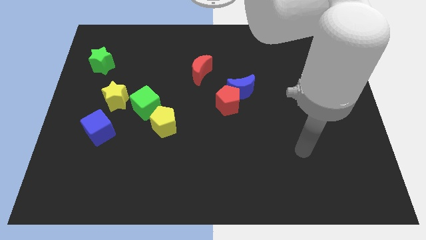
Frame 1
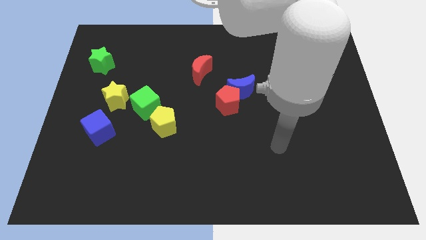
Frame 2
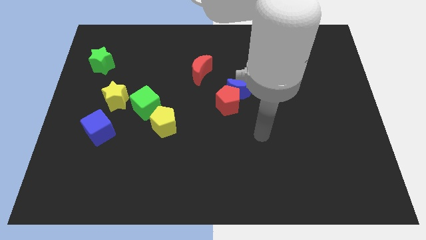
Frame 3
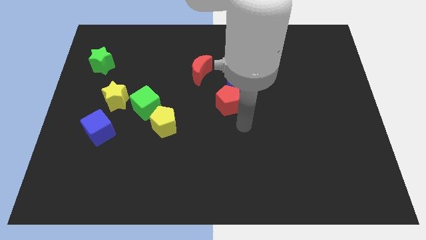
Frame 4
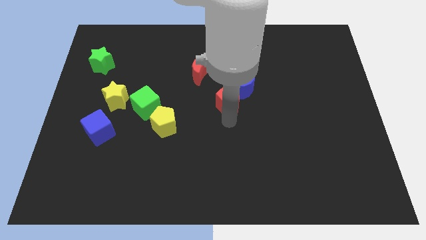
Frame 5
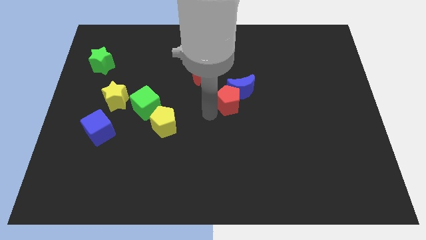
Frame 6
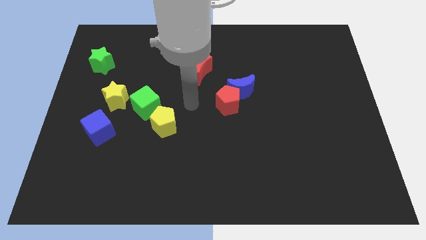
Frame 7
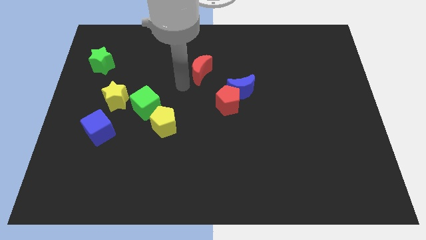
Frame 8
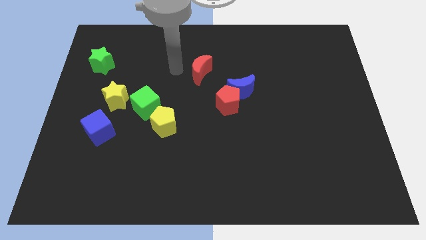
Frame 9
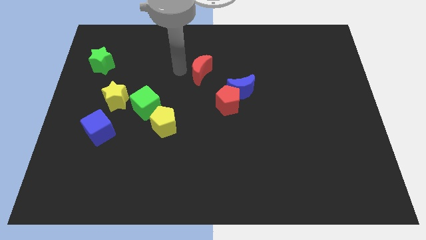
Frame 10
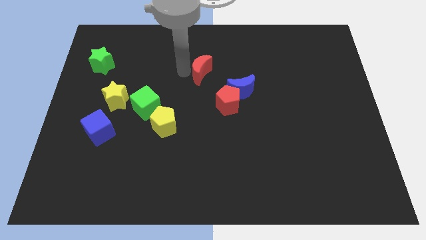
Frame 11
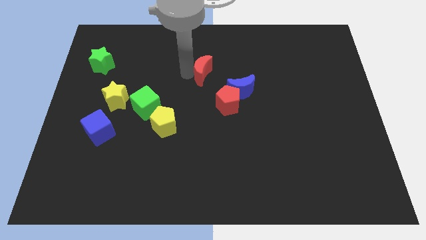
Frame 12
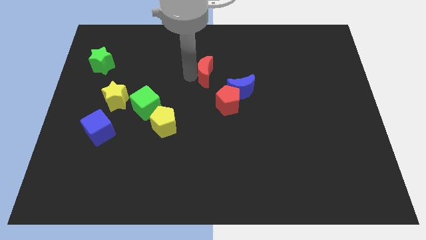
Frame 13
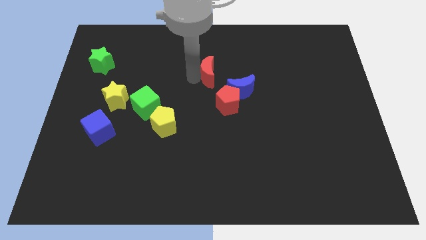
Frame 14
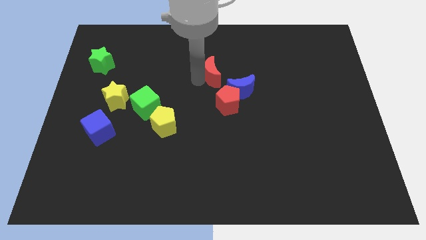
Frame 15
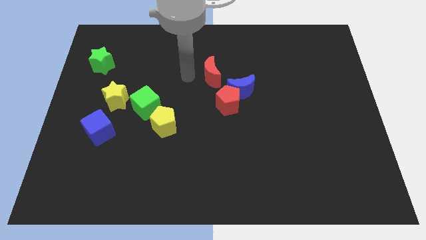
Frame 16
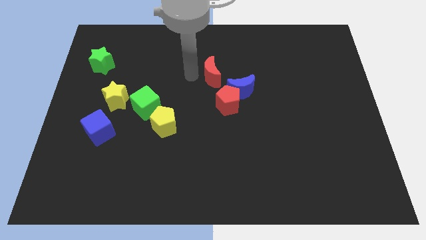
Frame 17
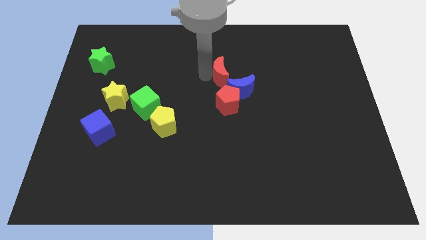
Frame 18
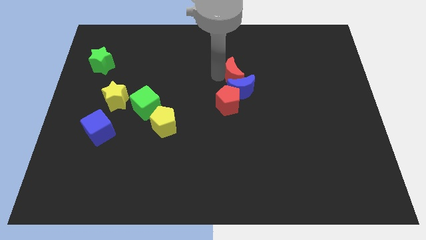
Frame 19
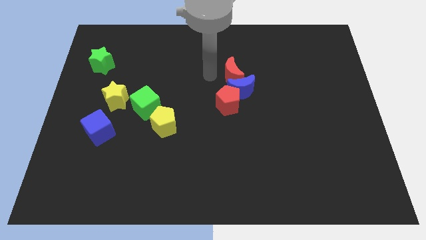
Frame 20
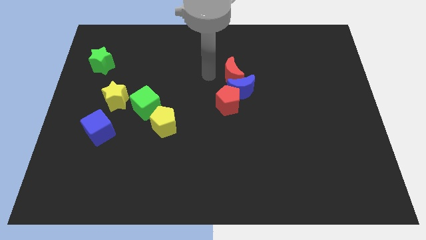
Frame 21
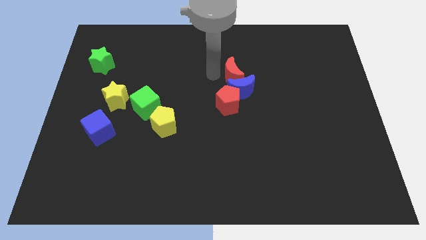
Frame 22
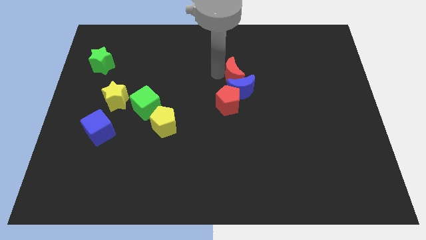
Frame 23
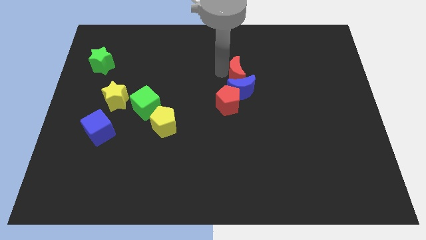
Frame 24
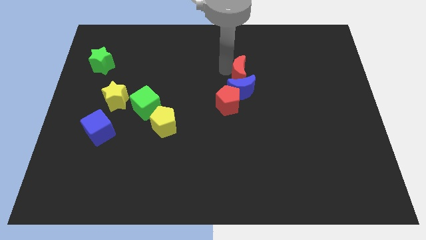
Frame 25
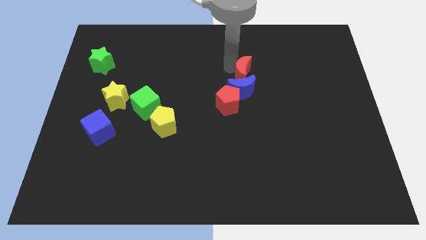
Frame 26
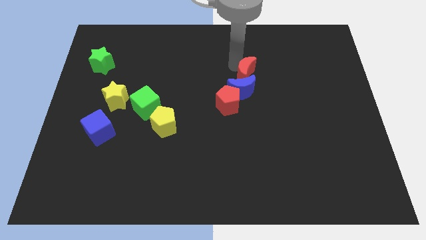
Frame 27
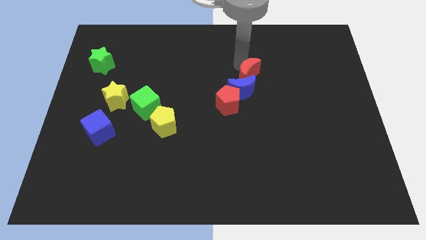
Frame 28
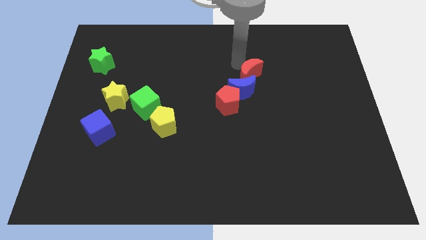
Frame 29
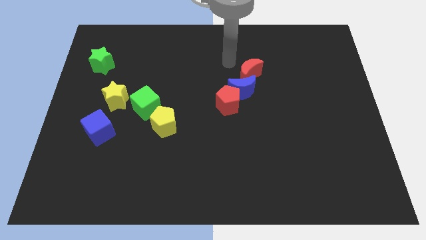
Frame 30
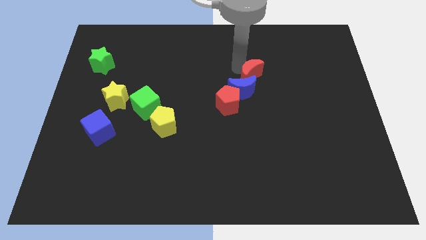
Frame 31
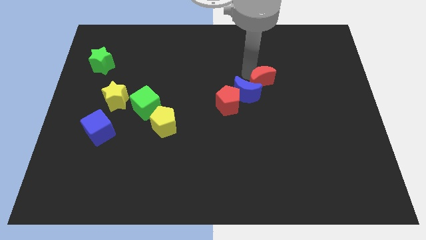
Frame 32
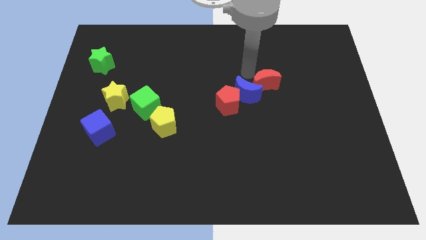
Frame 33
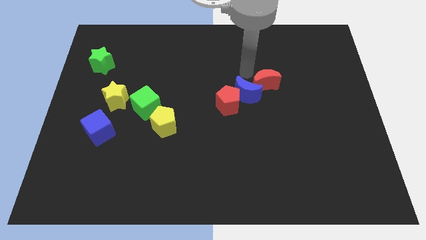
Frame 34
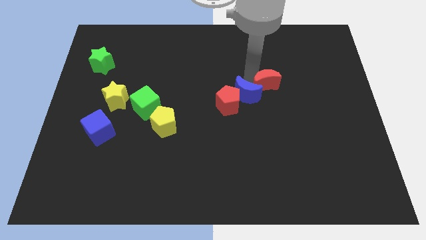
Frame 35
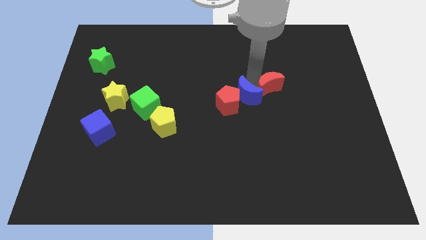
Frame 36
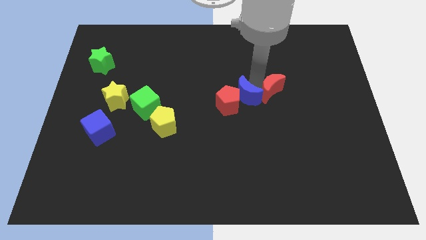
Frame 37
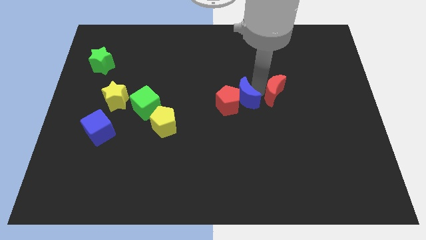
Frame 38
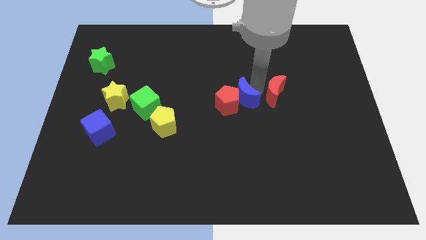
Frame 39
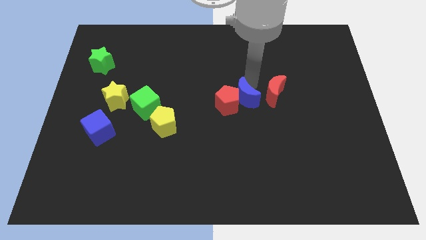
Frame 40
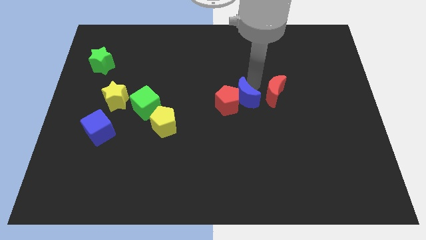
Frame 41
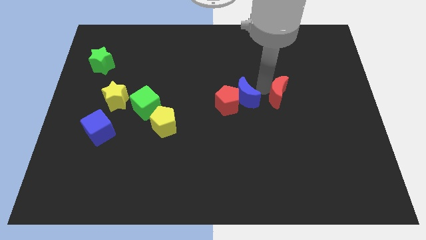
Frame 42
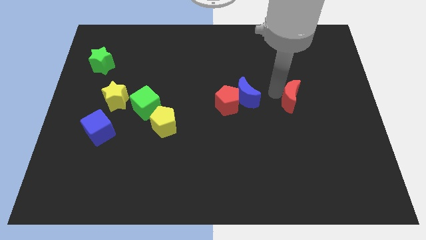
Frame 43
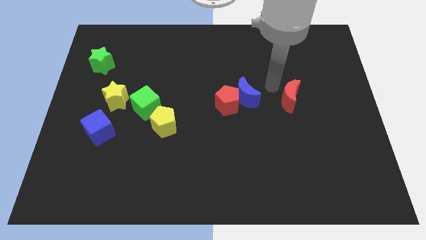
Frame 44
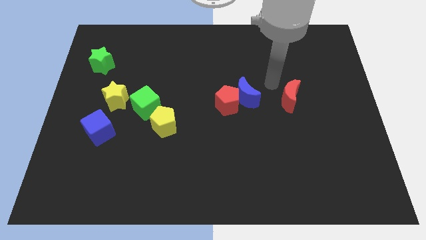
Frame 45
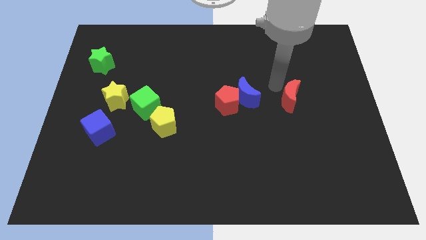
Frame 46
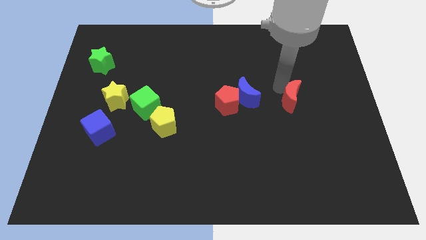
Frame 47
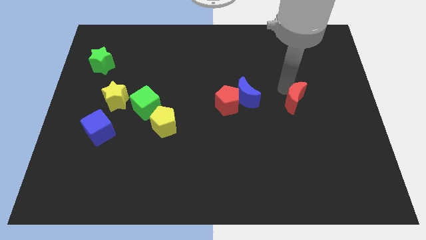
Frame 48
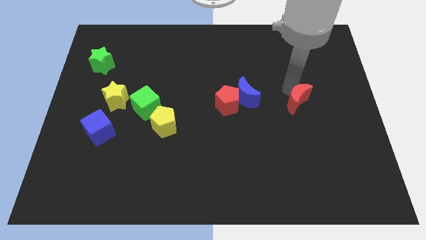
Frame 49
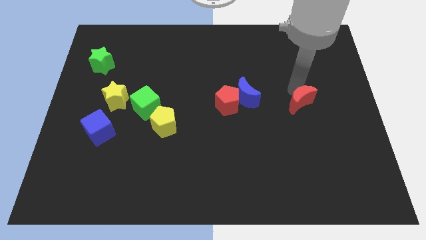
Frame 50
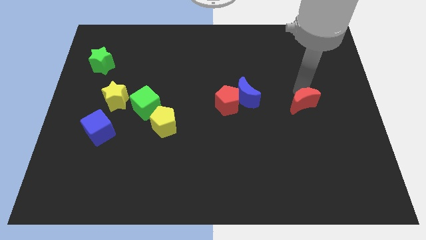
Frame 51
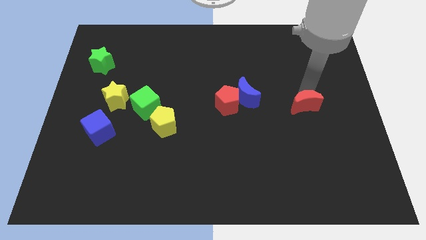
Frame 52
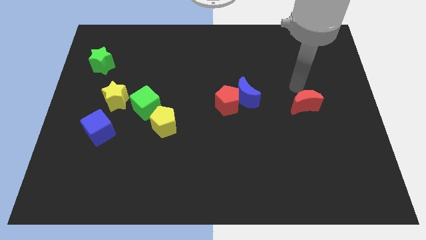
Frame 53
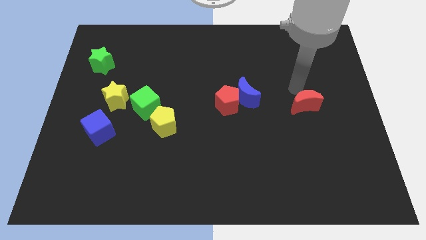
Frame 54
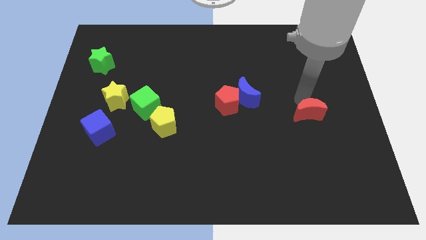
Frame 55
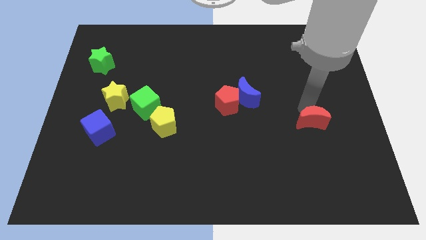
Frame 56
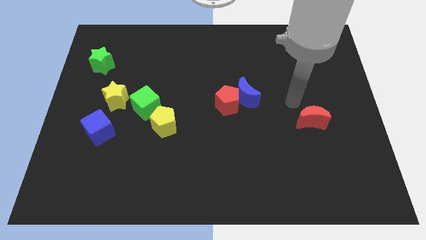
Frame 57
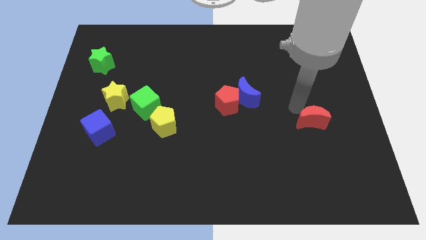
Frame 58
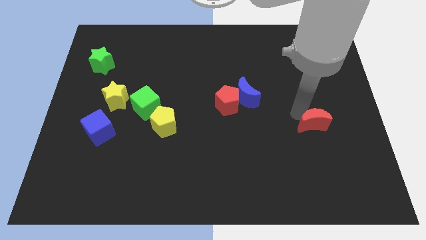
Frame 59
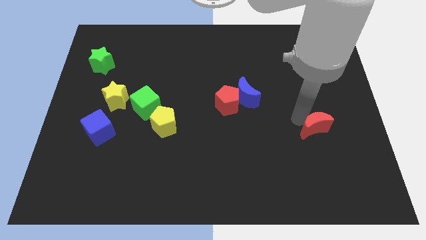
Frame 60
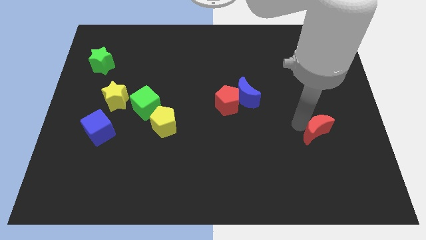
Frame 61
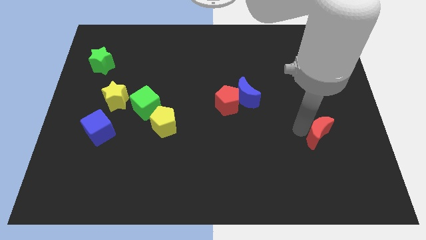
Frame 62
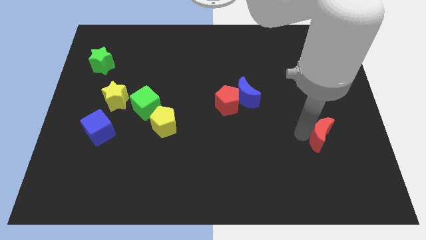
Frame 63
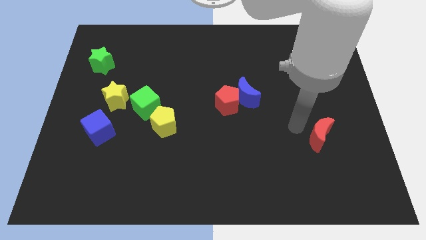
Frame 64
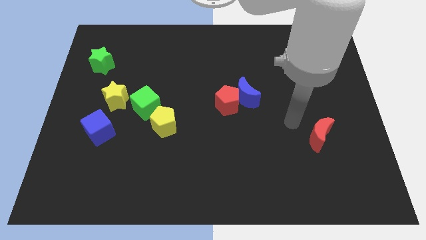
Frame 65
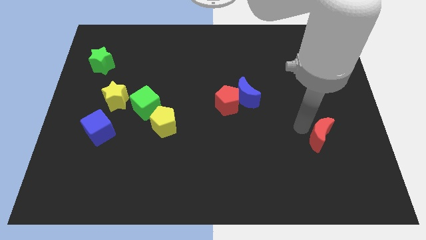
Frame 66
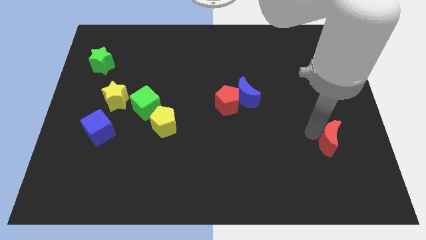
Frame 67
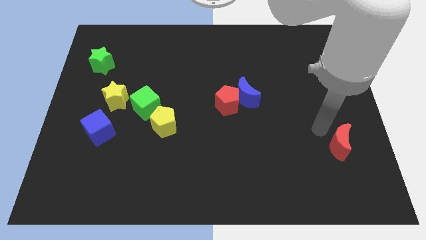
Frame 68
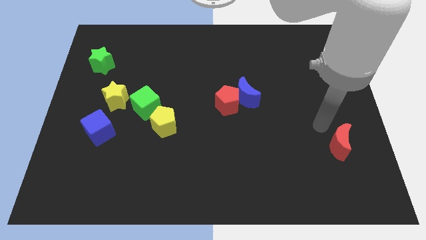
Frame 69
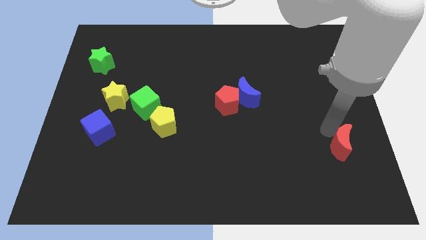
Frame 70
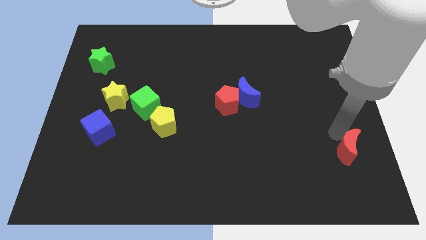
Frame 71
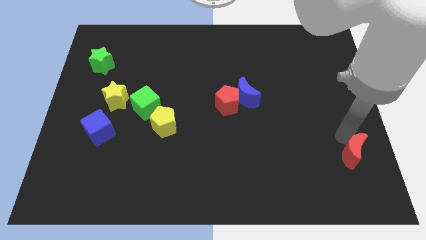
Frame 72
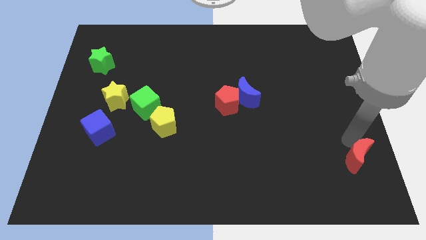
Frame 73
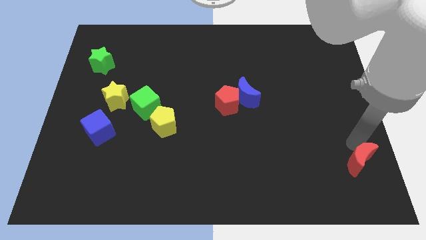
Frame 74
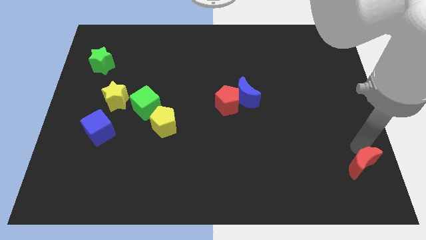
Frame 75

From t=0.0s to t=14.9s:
put the red moon to the lower right corner
